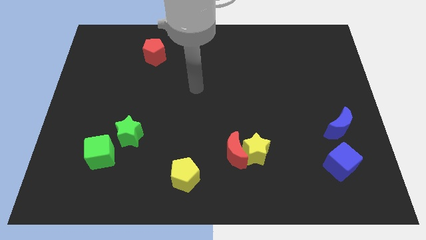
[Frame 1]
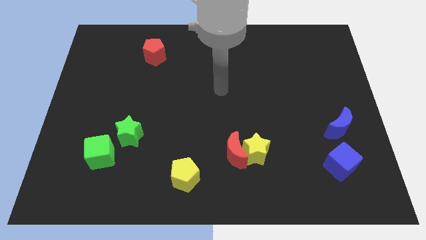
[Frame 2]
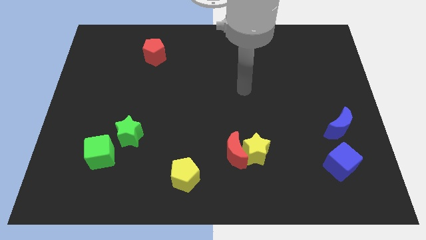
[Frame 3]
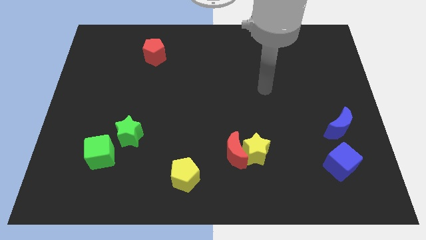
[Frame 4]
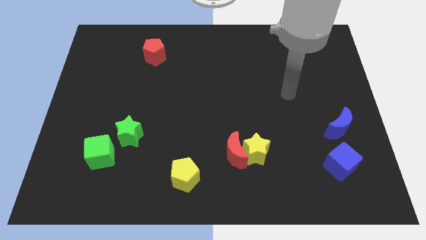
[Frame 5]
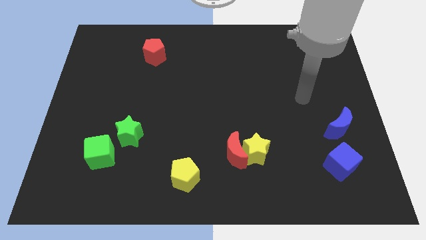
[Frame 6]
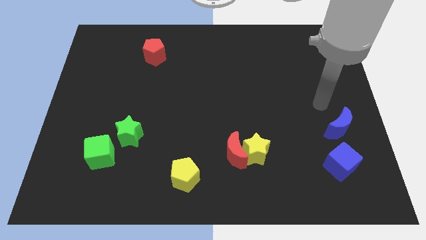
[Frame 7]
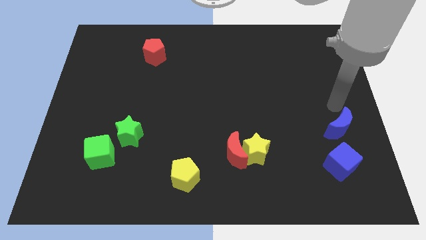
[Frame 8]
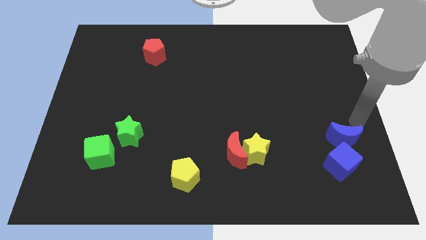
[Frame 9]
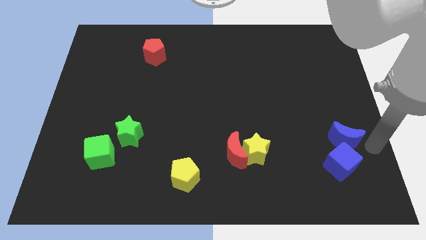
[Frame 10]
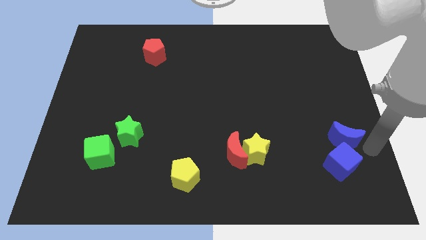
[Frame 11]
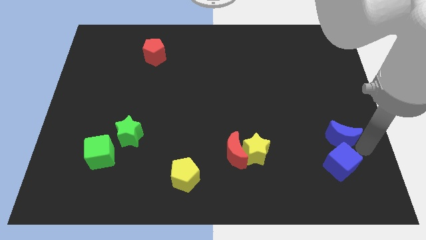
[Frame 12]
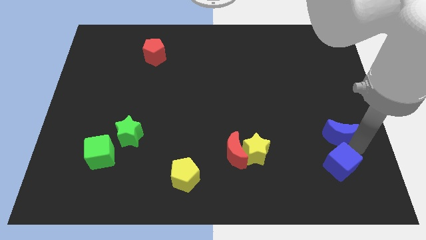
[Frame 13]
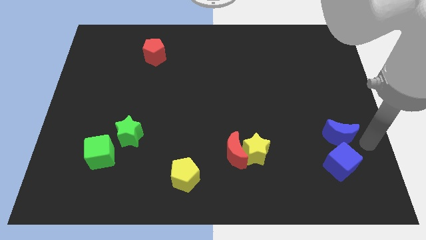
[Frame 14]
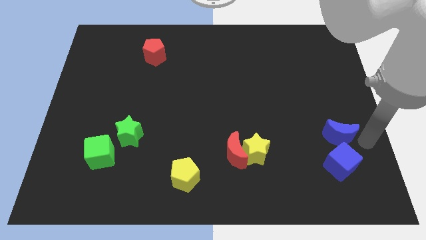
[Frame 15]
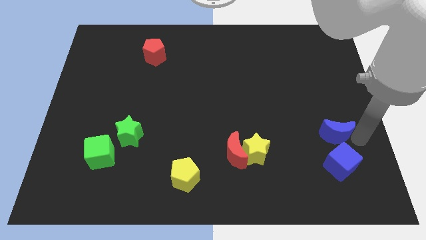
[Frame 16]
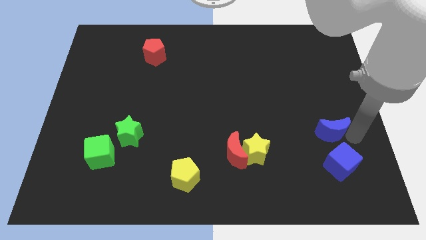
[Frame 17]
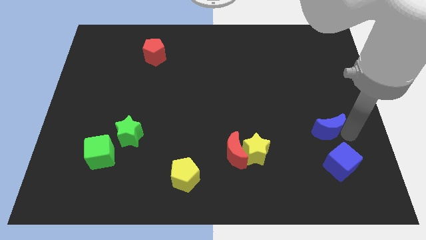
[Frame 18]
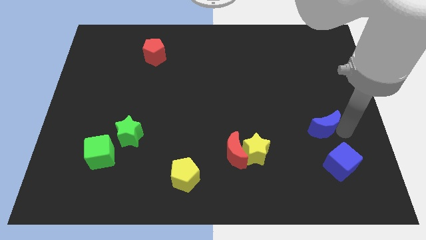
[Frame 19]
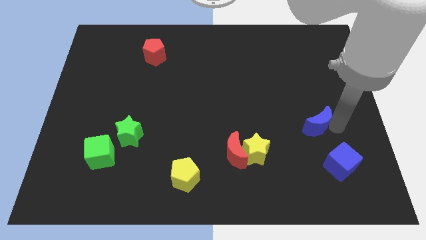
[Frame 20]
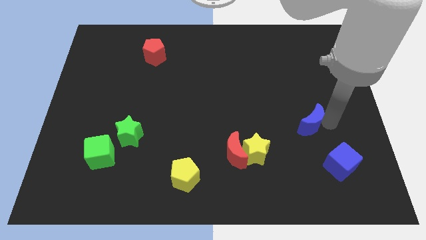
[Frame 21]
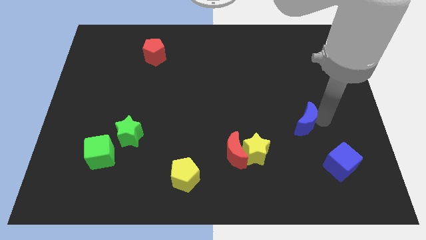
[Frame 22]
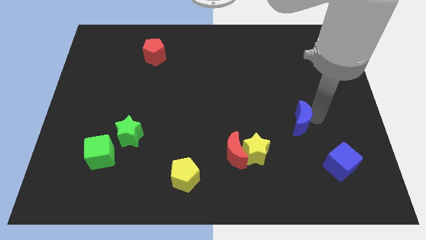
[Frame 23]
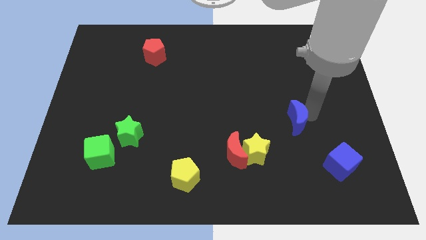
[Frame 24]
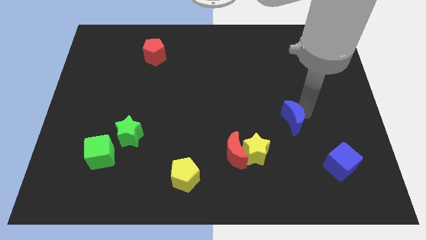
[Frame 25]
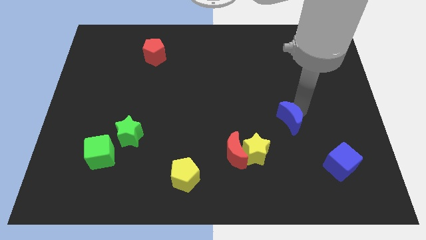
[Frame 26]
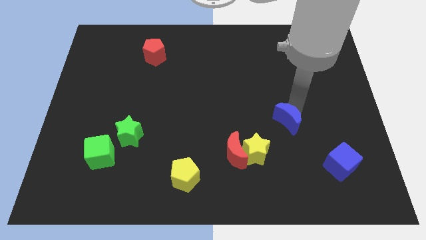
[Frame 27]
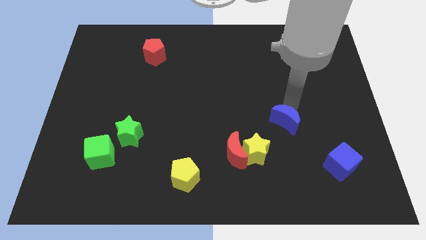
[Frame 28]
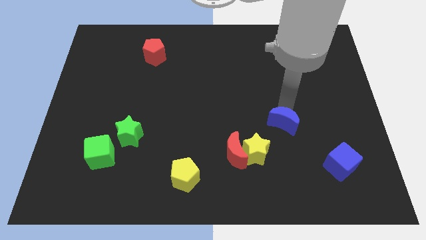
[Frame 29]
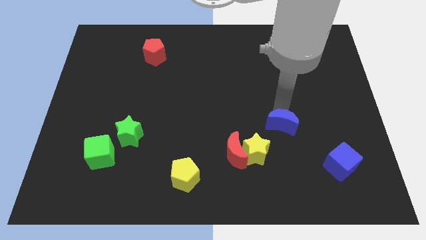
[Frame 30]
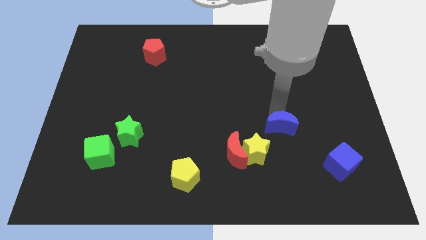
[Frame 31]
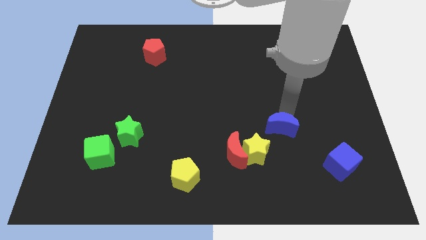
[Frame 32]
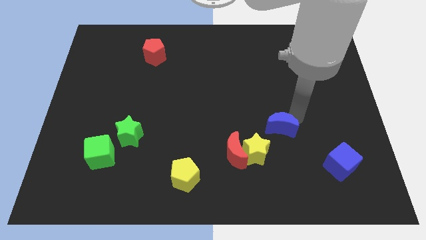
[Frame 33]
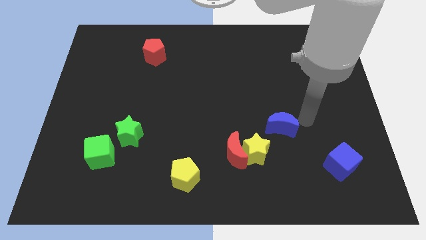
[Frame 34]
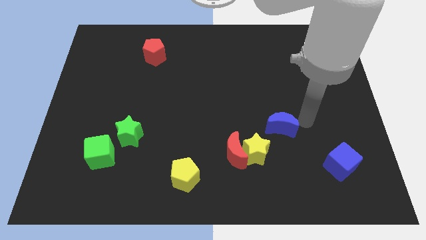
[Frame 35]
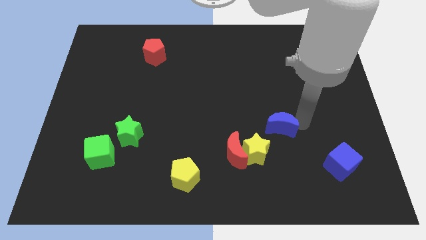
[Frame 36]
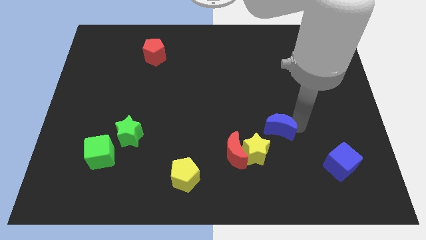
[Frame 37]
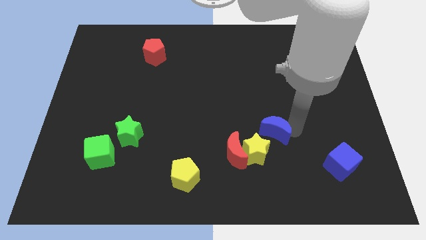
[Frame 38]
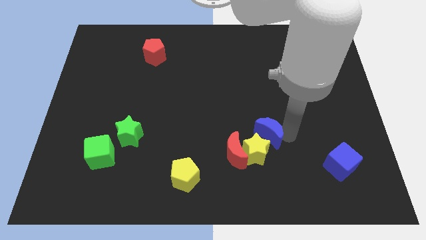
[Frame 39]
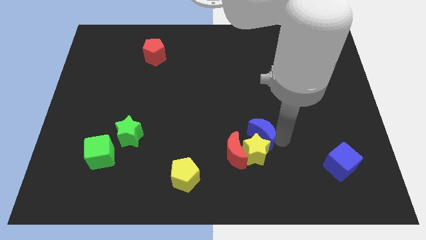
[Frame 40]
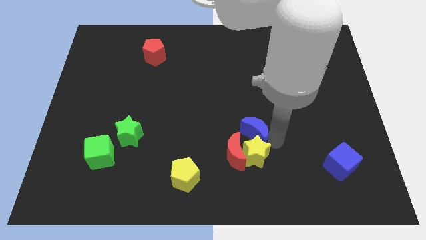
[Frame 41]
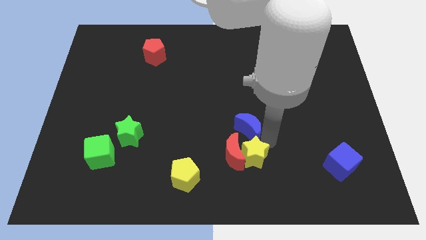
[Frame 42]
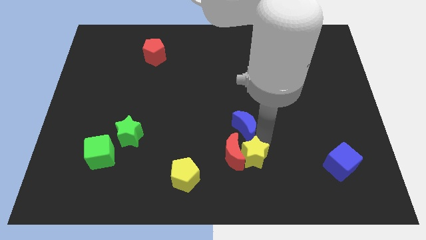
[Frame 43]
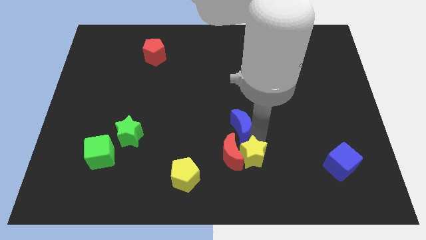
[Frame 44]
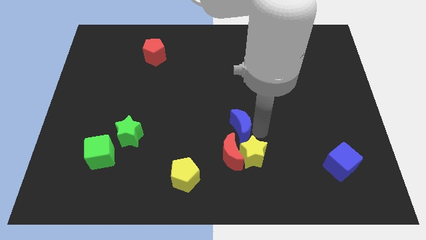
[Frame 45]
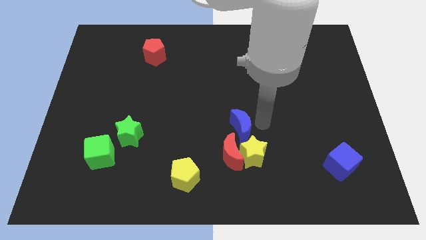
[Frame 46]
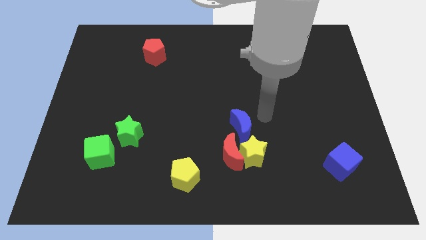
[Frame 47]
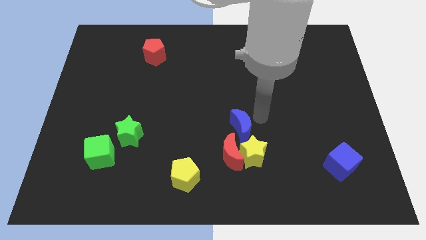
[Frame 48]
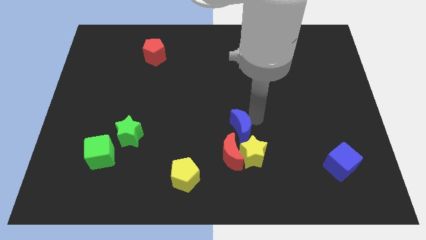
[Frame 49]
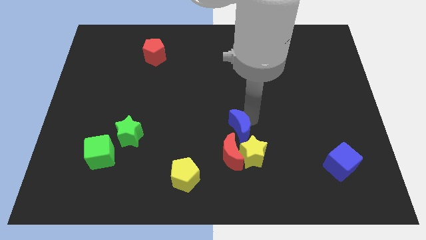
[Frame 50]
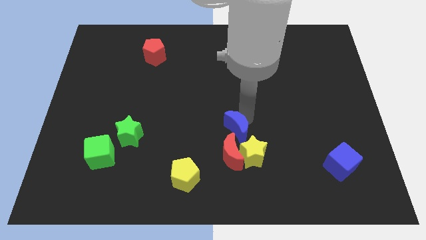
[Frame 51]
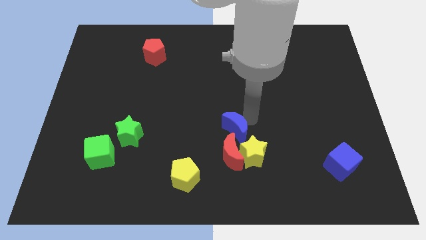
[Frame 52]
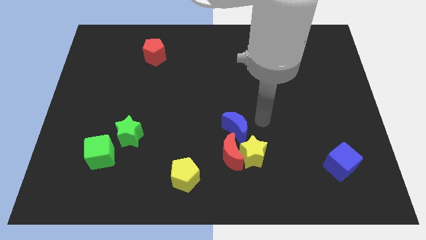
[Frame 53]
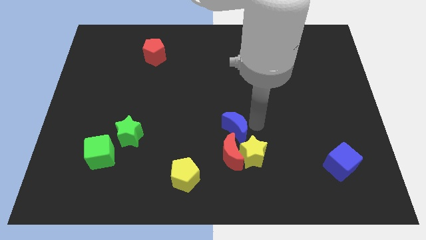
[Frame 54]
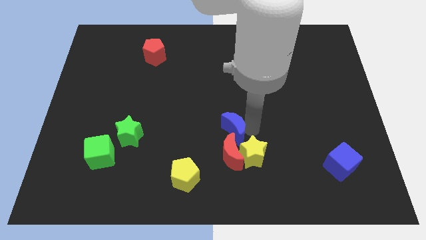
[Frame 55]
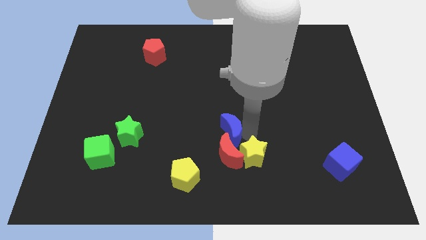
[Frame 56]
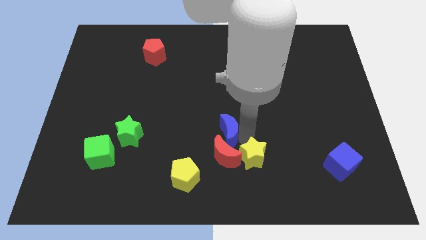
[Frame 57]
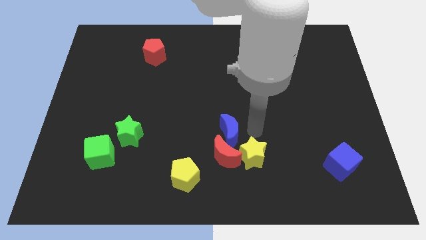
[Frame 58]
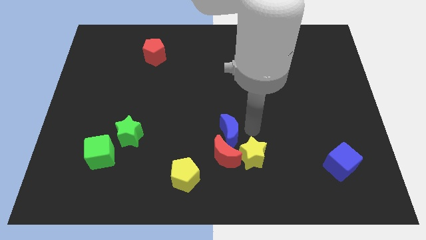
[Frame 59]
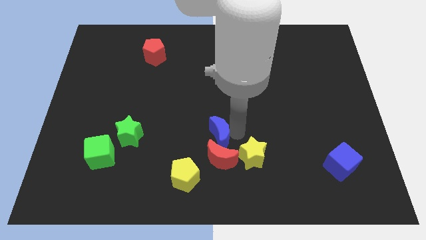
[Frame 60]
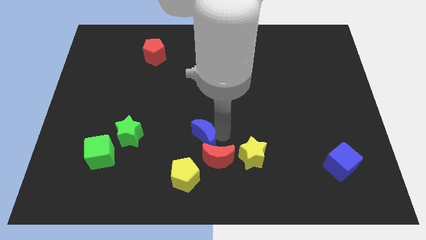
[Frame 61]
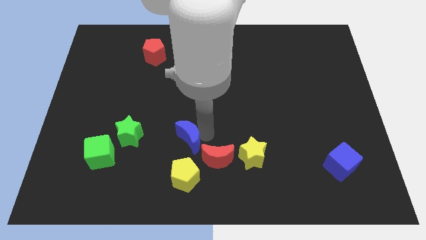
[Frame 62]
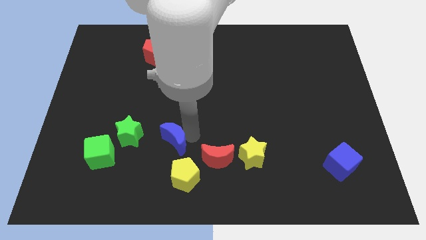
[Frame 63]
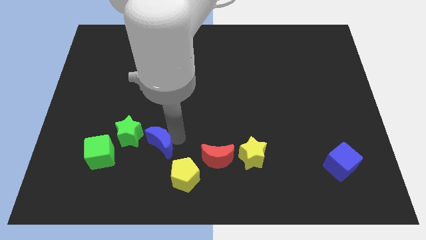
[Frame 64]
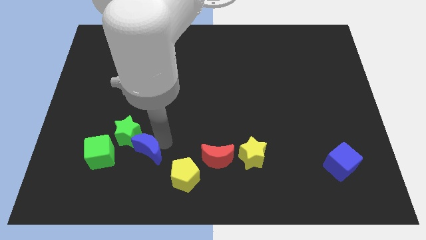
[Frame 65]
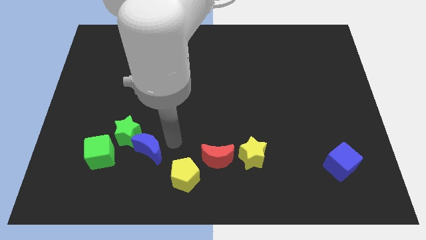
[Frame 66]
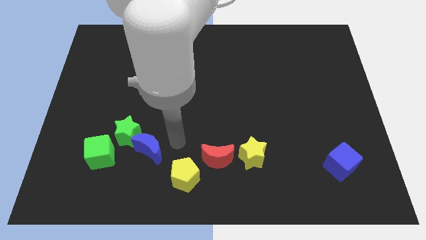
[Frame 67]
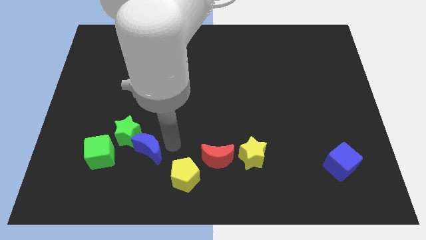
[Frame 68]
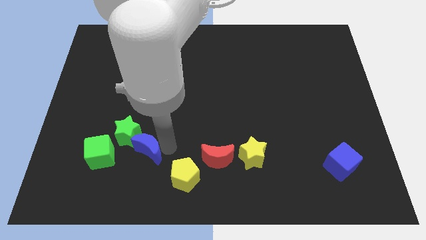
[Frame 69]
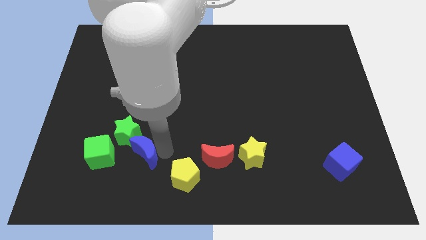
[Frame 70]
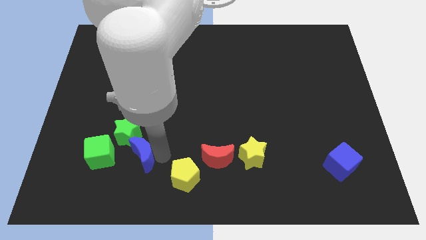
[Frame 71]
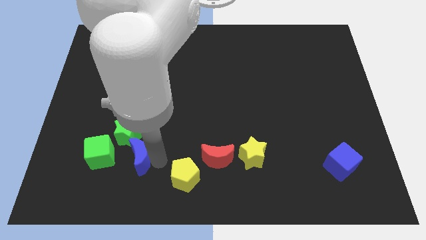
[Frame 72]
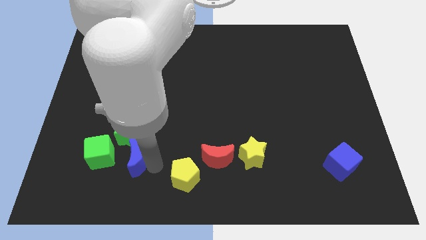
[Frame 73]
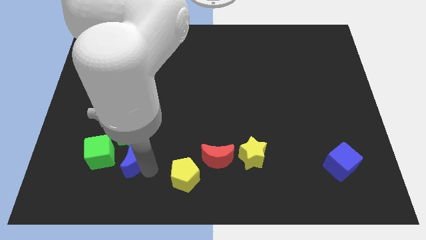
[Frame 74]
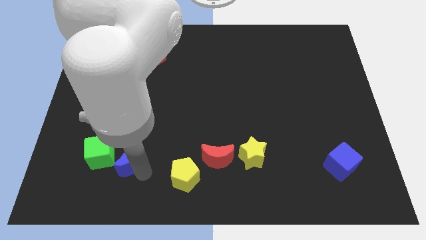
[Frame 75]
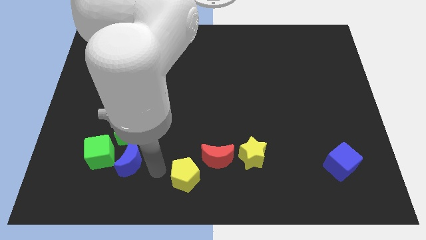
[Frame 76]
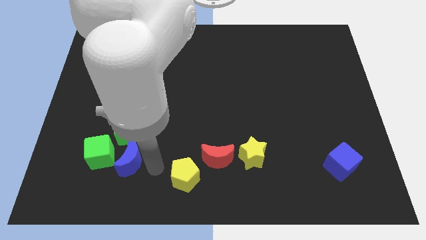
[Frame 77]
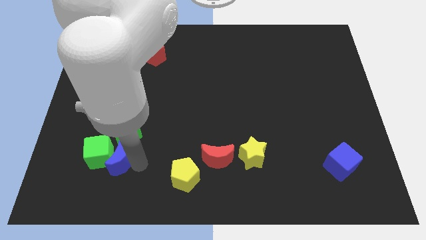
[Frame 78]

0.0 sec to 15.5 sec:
put the blue moon to the green cube
